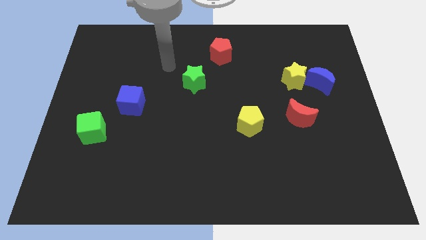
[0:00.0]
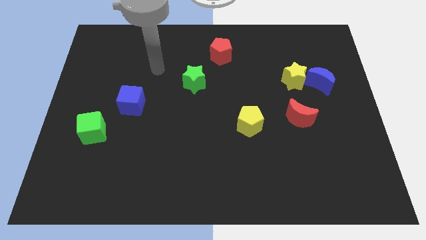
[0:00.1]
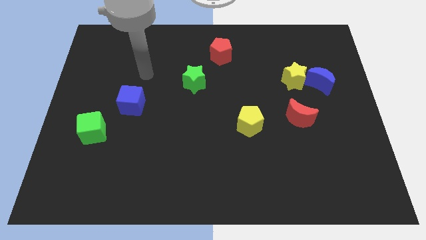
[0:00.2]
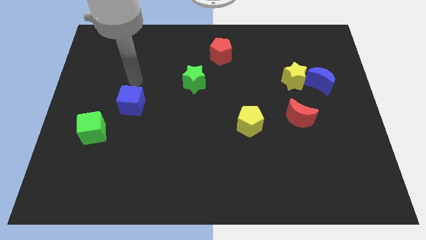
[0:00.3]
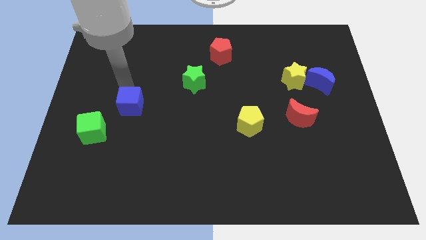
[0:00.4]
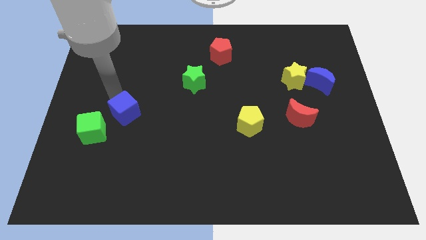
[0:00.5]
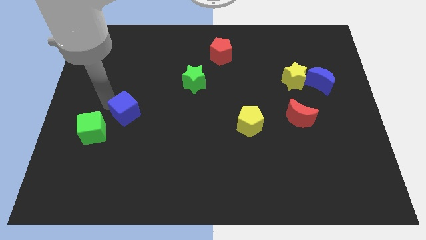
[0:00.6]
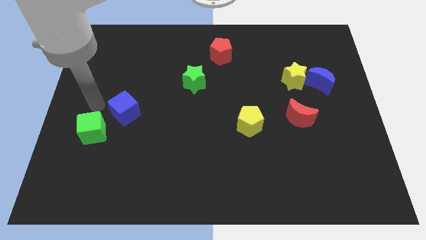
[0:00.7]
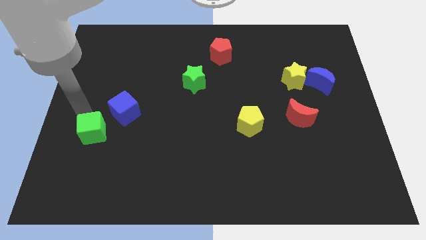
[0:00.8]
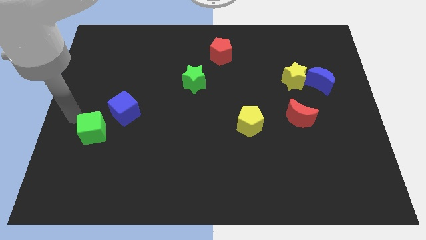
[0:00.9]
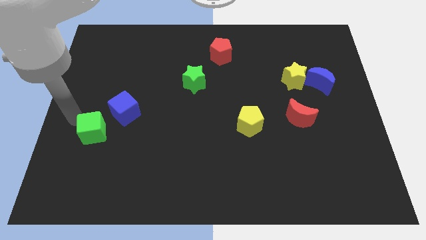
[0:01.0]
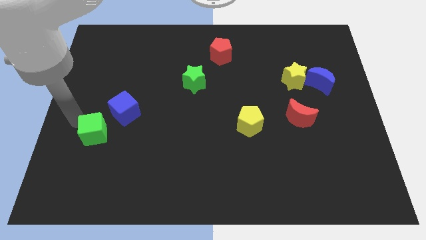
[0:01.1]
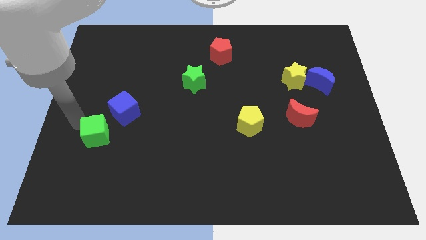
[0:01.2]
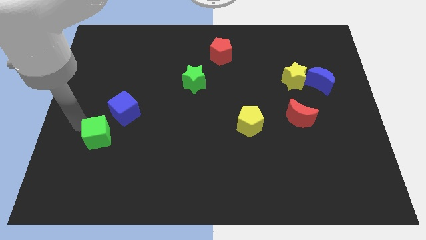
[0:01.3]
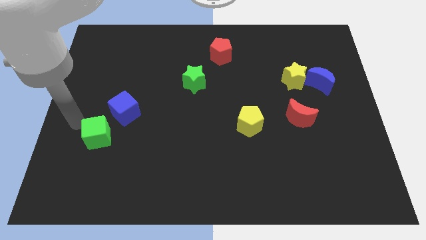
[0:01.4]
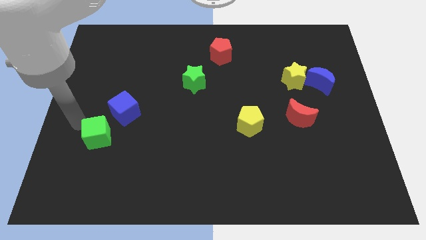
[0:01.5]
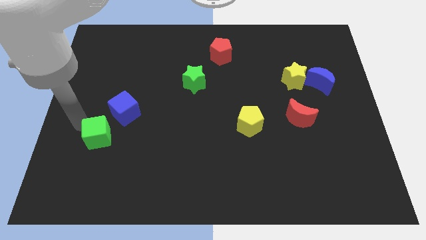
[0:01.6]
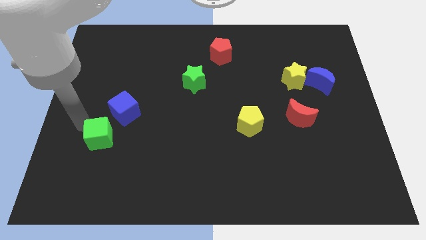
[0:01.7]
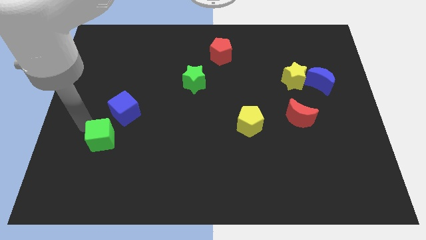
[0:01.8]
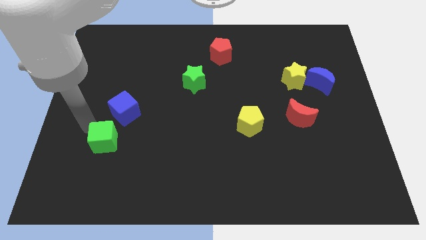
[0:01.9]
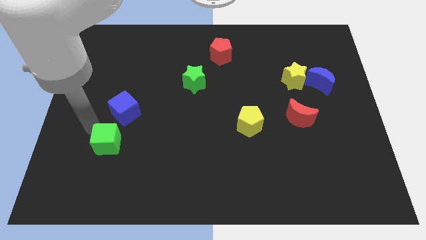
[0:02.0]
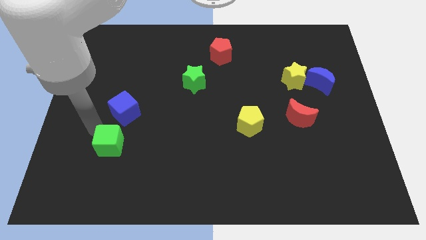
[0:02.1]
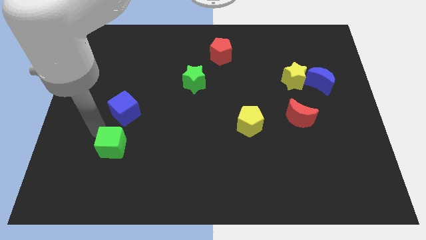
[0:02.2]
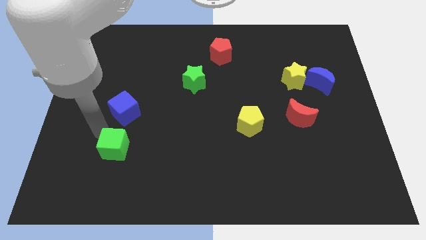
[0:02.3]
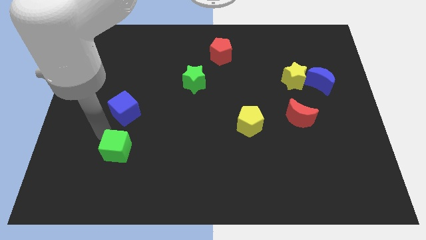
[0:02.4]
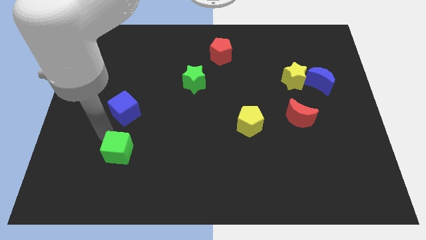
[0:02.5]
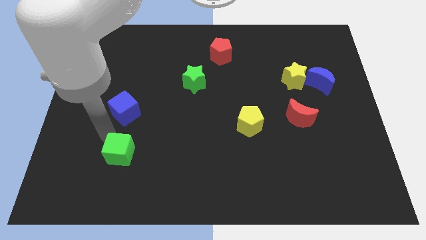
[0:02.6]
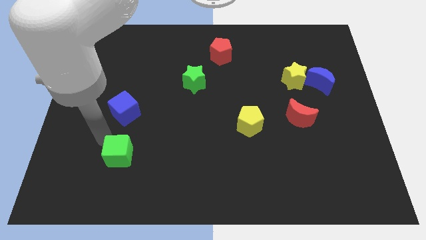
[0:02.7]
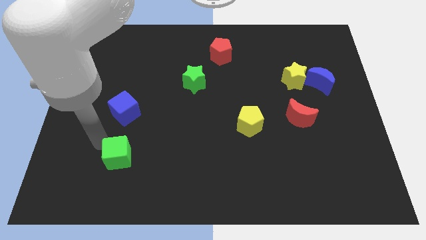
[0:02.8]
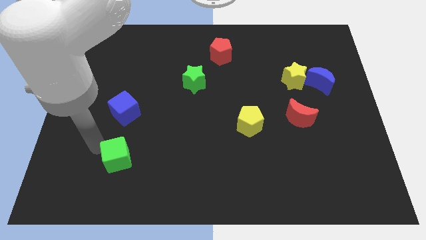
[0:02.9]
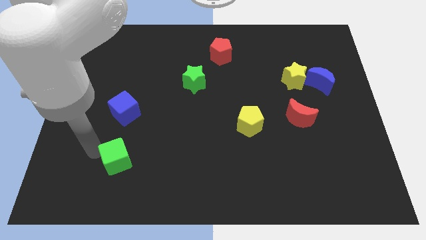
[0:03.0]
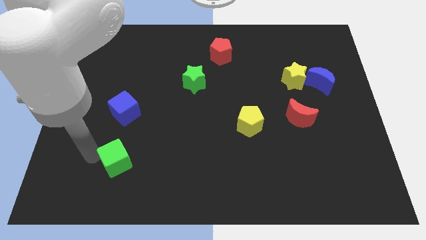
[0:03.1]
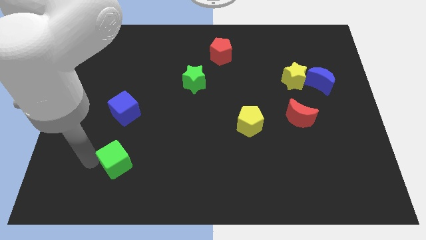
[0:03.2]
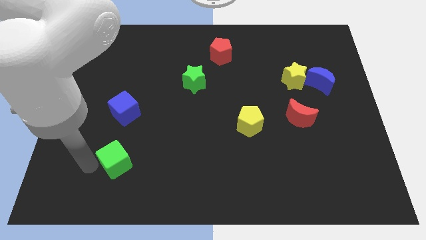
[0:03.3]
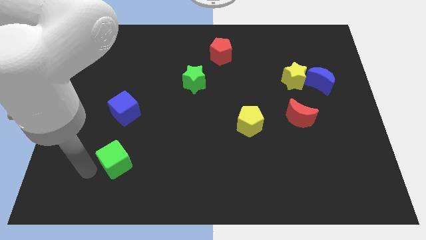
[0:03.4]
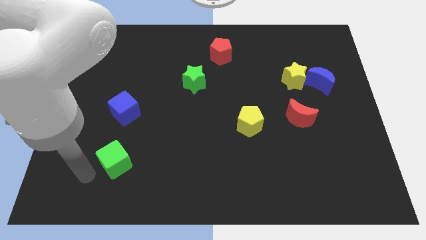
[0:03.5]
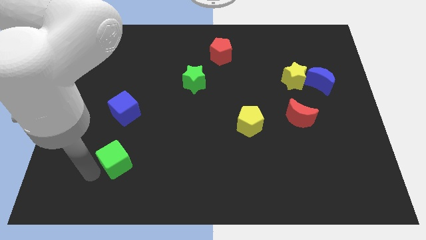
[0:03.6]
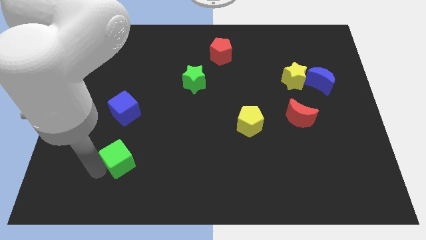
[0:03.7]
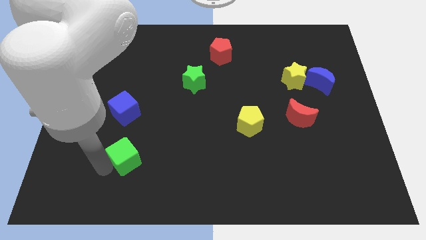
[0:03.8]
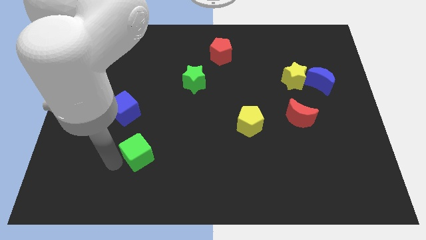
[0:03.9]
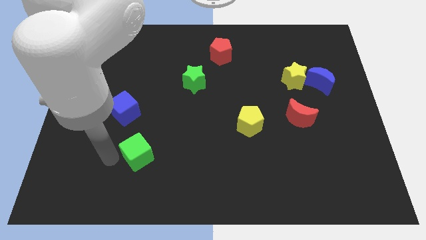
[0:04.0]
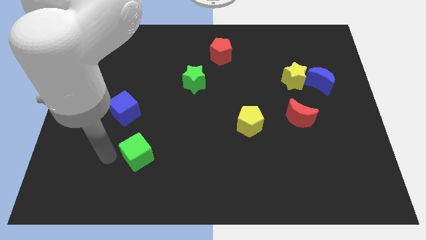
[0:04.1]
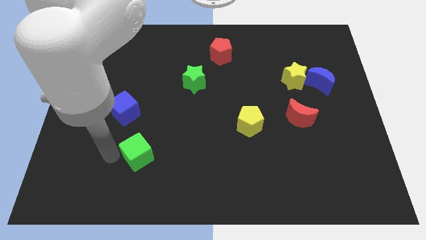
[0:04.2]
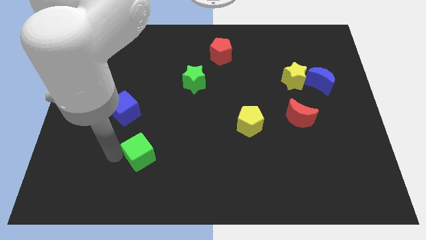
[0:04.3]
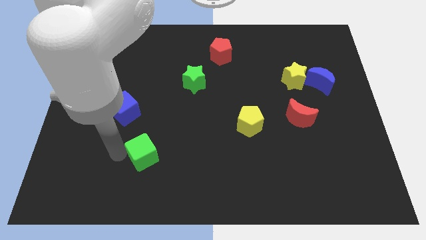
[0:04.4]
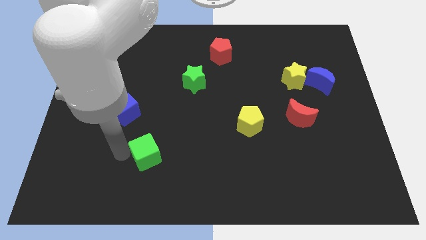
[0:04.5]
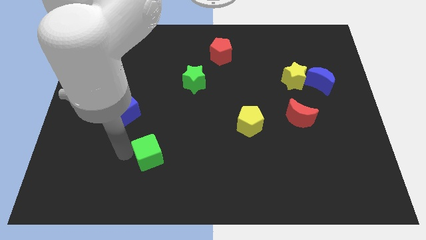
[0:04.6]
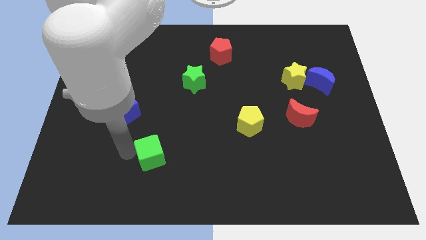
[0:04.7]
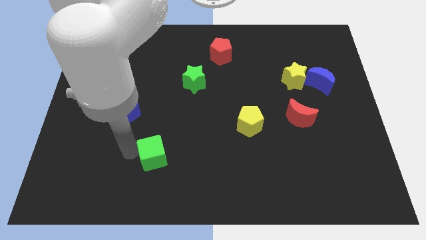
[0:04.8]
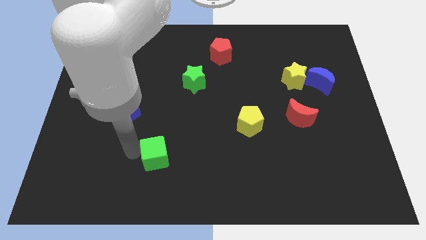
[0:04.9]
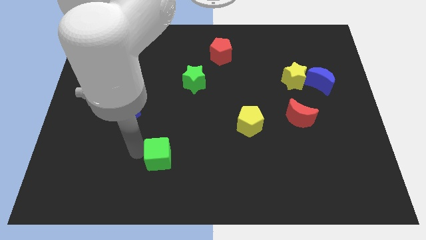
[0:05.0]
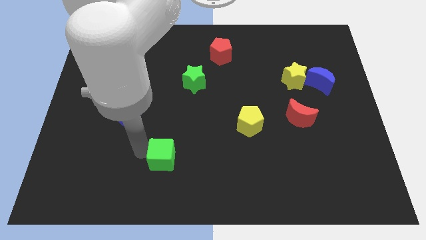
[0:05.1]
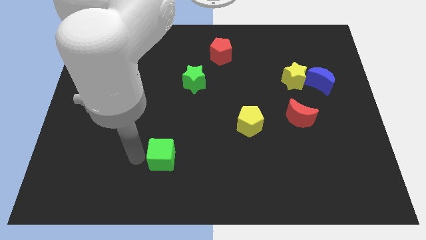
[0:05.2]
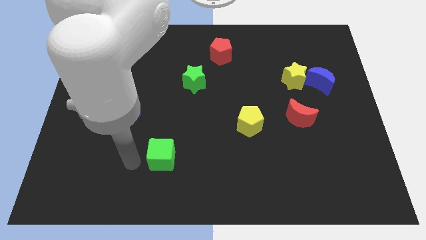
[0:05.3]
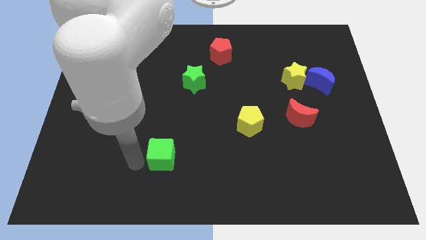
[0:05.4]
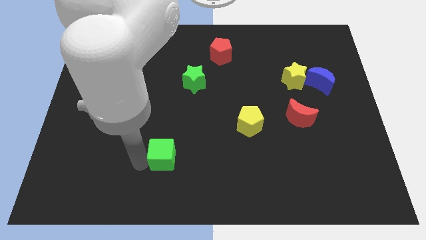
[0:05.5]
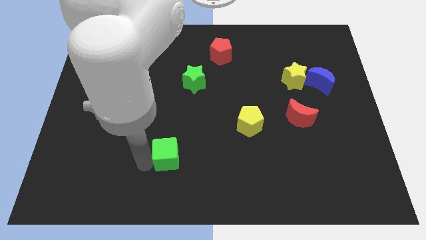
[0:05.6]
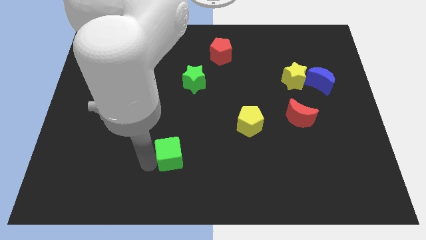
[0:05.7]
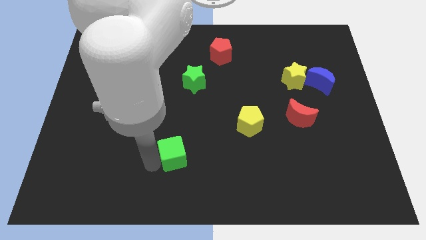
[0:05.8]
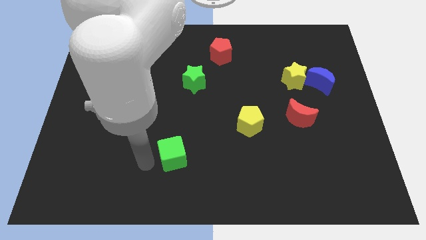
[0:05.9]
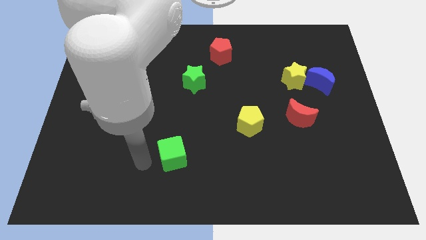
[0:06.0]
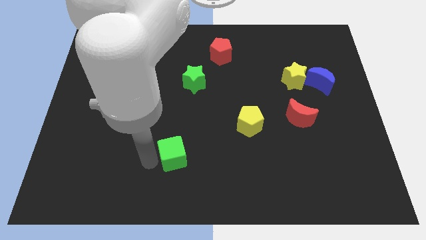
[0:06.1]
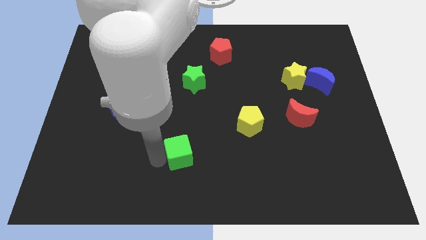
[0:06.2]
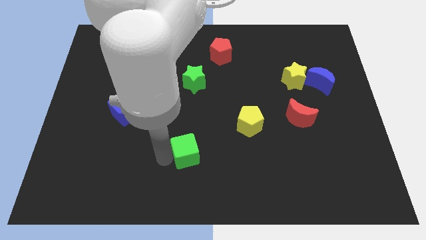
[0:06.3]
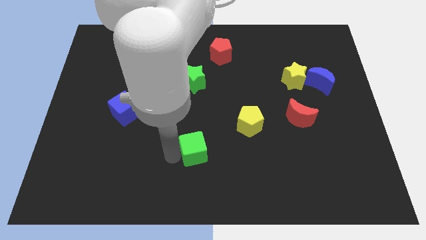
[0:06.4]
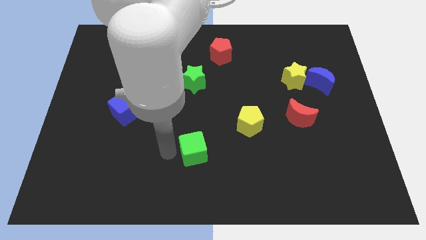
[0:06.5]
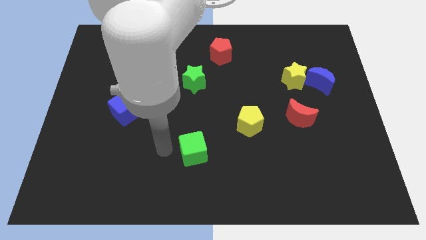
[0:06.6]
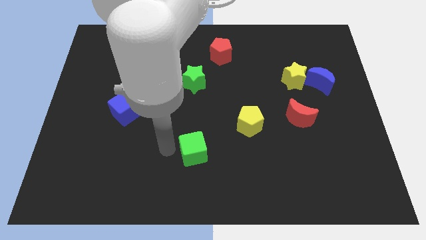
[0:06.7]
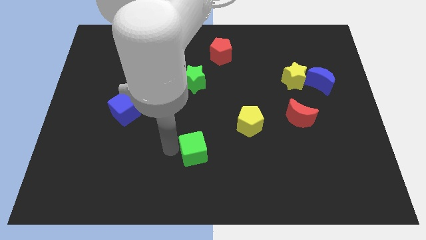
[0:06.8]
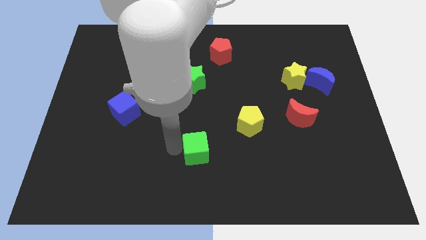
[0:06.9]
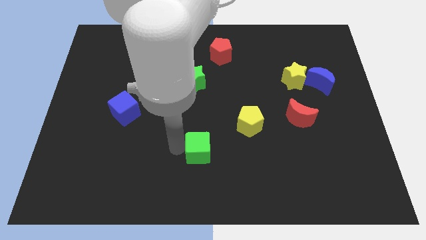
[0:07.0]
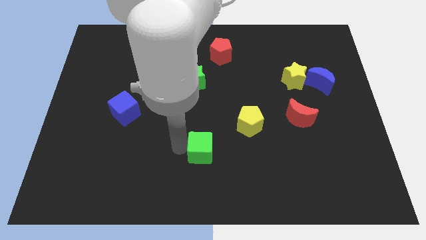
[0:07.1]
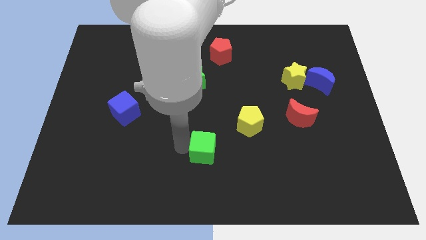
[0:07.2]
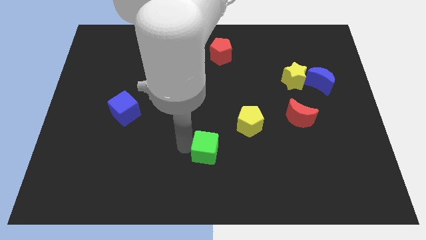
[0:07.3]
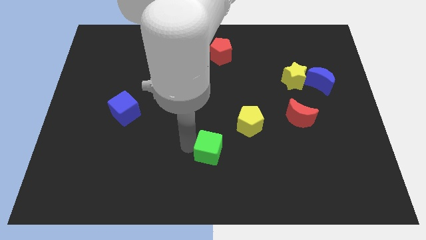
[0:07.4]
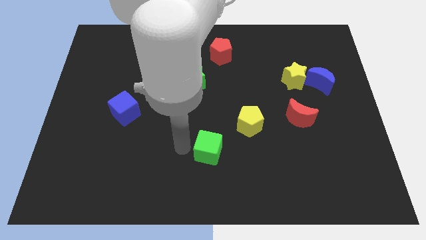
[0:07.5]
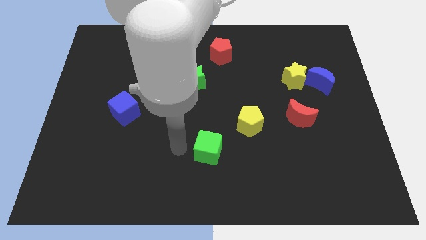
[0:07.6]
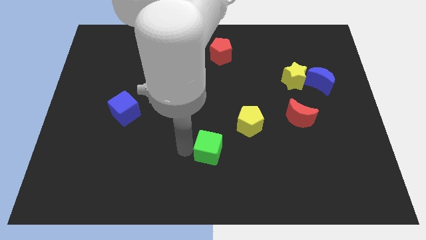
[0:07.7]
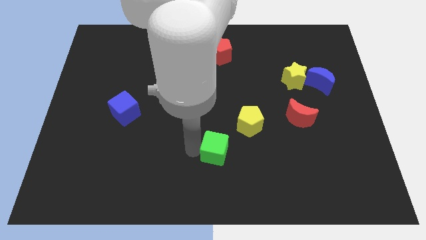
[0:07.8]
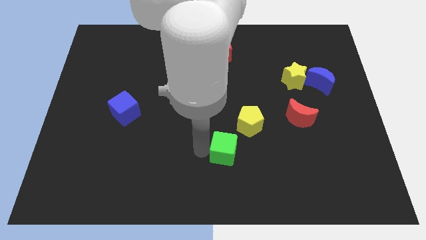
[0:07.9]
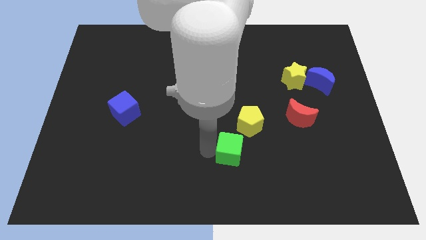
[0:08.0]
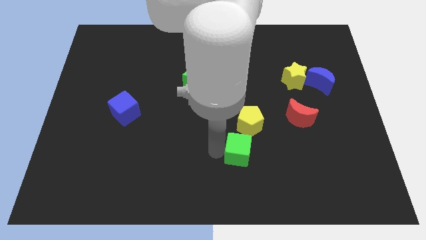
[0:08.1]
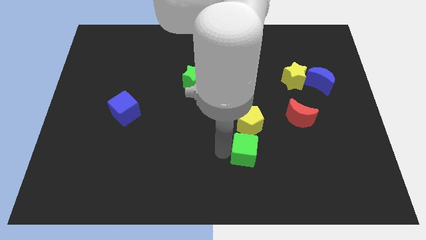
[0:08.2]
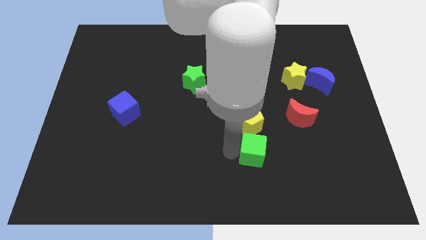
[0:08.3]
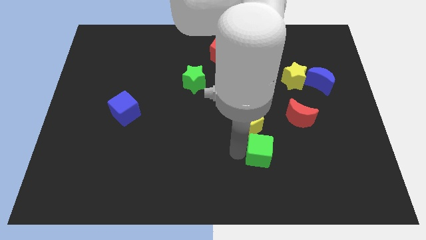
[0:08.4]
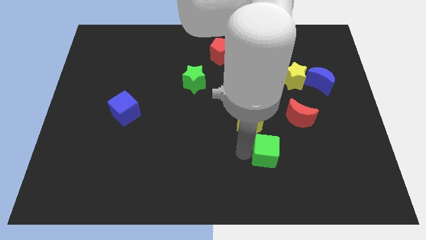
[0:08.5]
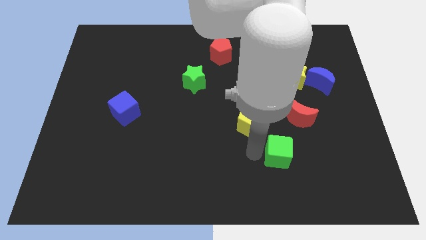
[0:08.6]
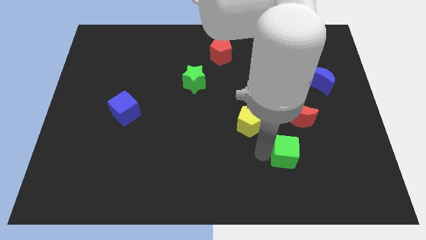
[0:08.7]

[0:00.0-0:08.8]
move the green cube to the bottom of the red moon
